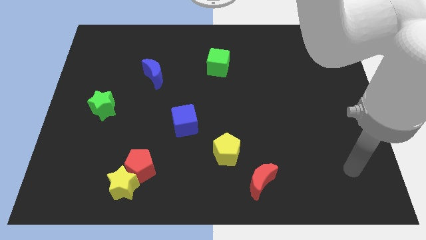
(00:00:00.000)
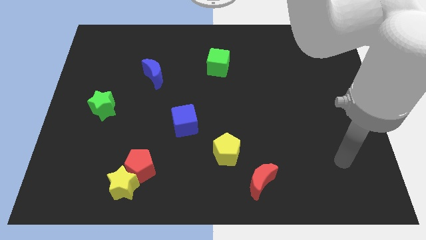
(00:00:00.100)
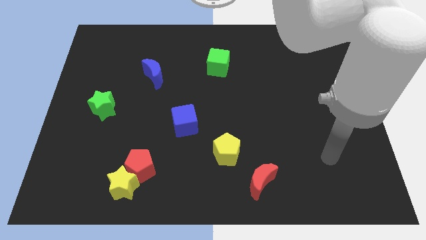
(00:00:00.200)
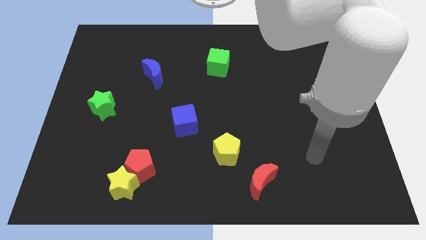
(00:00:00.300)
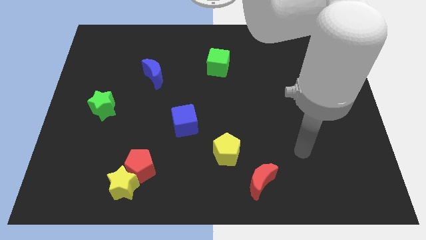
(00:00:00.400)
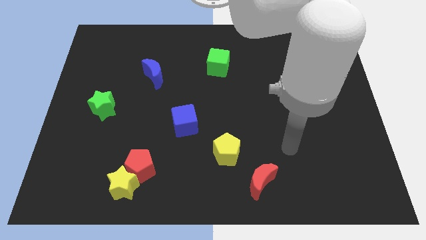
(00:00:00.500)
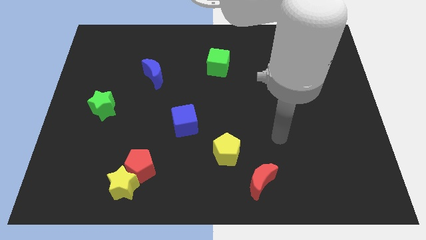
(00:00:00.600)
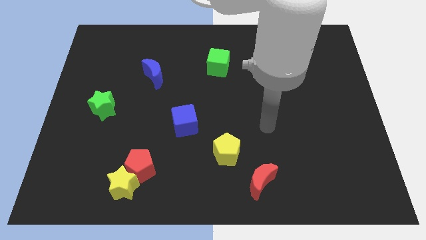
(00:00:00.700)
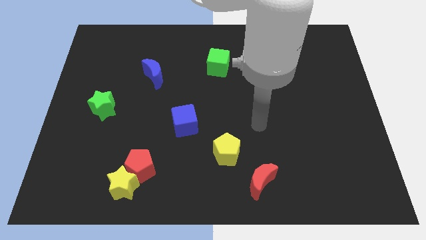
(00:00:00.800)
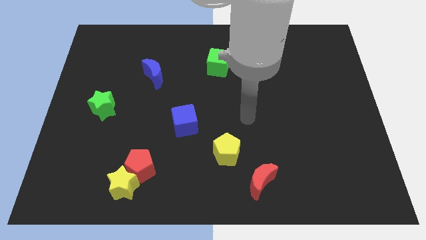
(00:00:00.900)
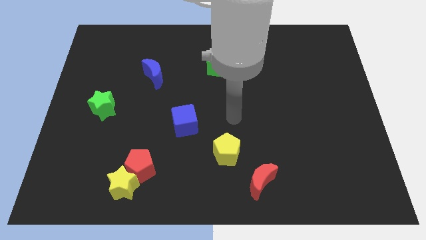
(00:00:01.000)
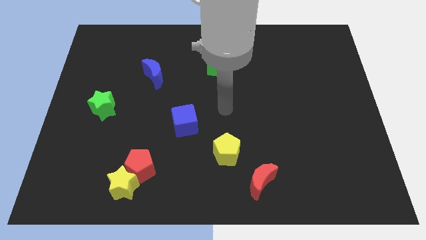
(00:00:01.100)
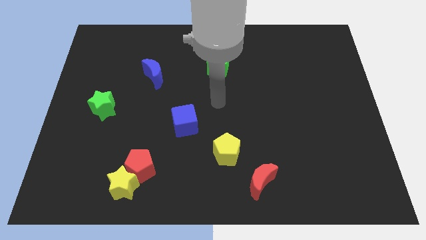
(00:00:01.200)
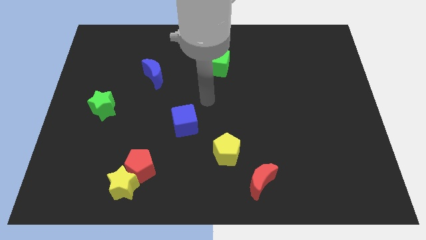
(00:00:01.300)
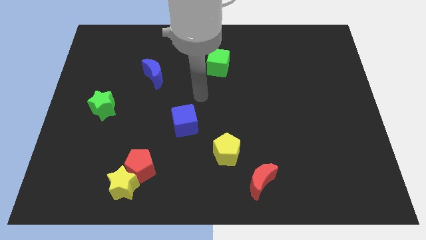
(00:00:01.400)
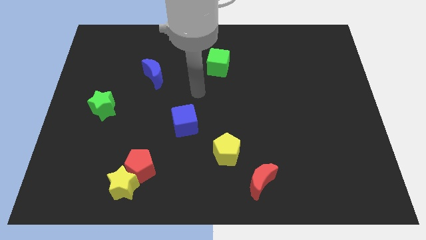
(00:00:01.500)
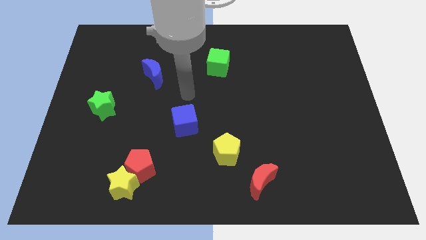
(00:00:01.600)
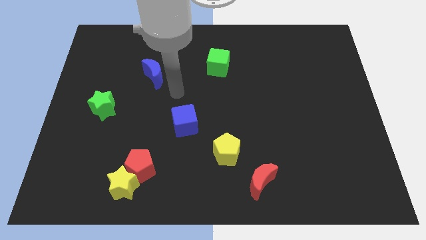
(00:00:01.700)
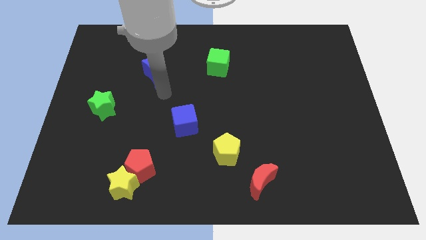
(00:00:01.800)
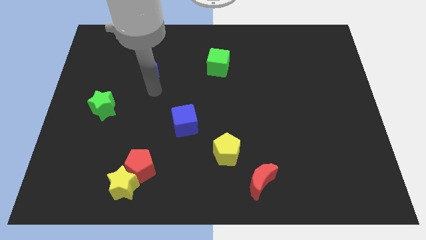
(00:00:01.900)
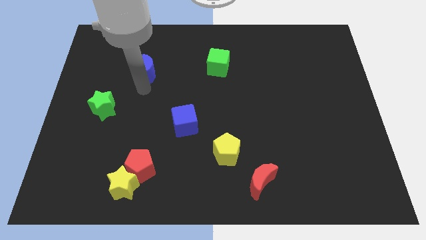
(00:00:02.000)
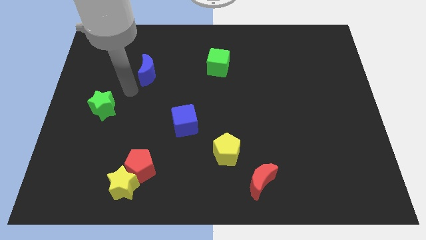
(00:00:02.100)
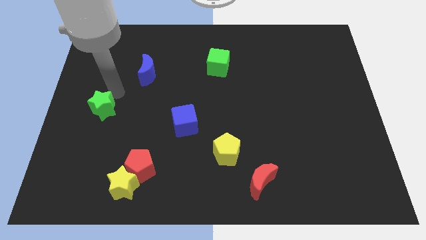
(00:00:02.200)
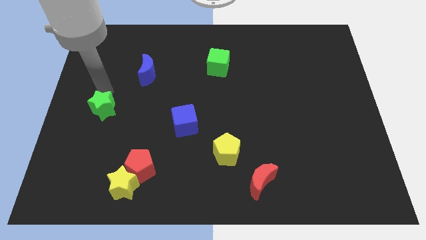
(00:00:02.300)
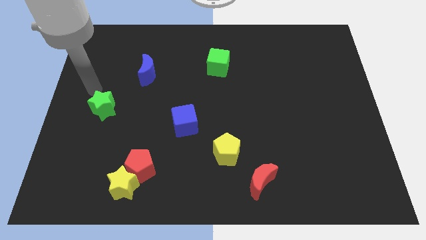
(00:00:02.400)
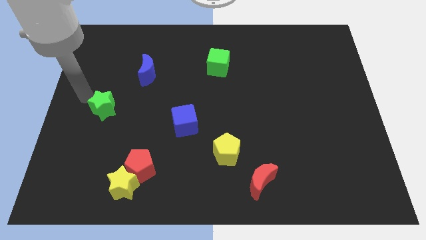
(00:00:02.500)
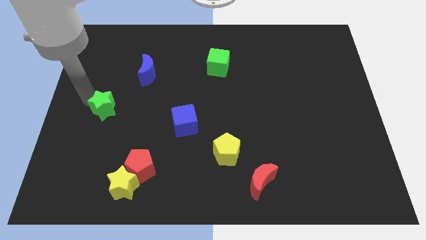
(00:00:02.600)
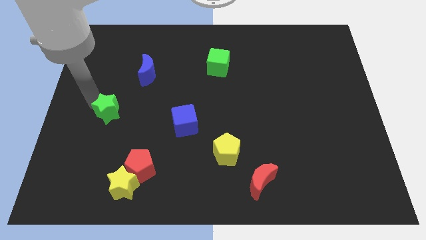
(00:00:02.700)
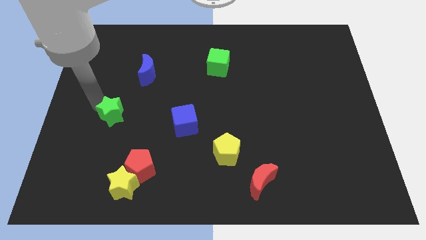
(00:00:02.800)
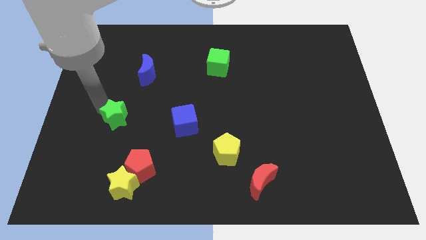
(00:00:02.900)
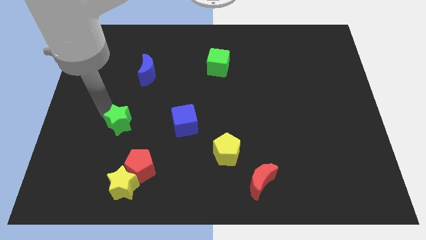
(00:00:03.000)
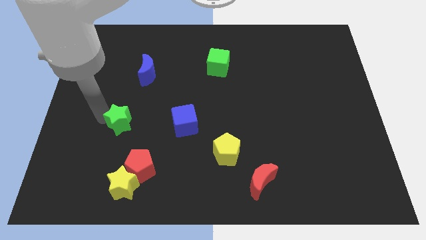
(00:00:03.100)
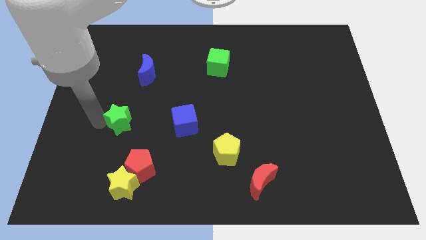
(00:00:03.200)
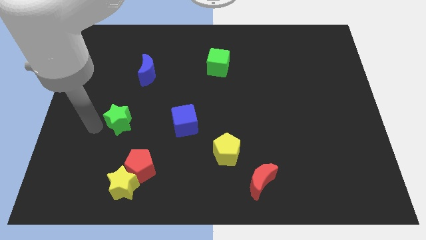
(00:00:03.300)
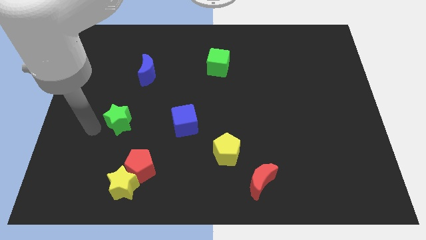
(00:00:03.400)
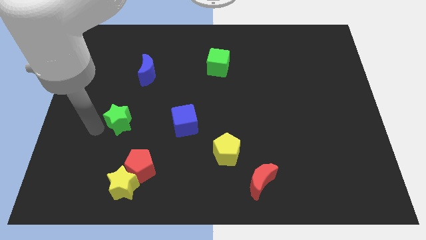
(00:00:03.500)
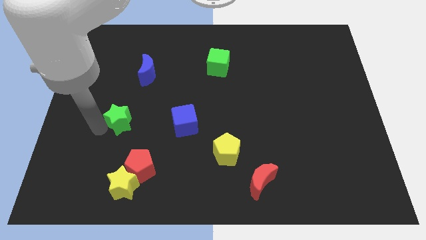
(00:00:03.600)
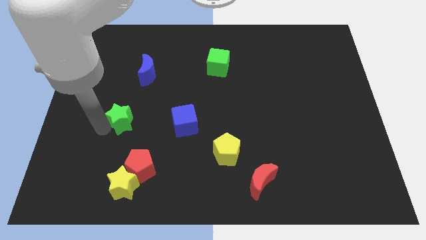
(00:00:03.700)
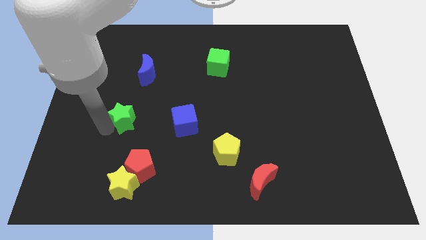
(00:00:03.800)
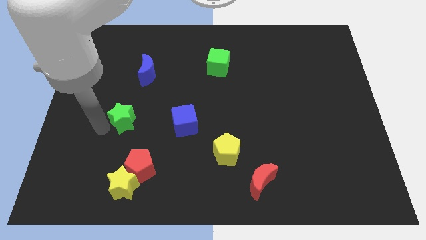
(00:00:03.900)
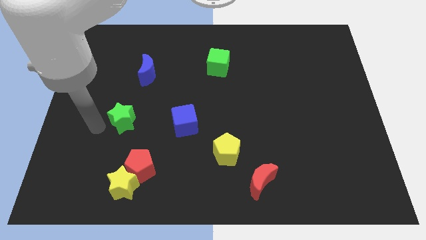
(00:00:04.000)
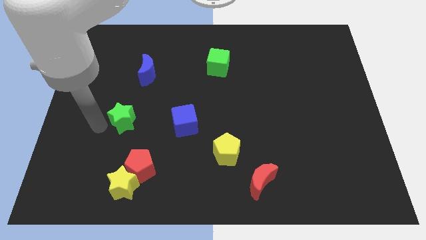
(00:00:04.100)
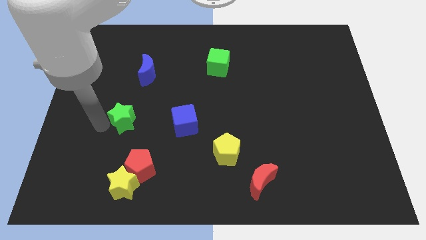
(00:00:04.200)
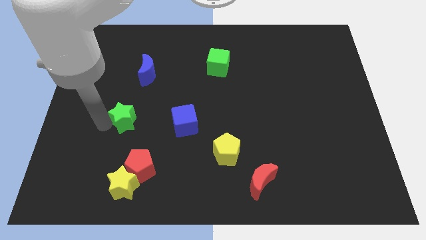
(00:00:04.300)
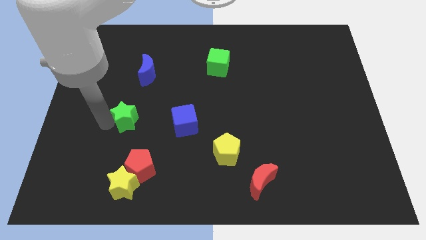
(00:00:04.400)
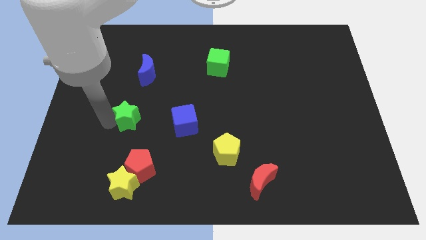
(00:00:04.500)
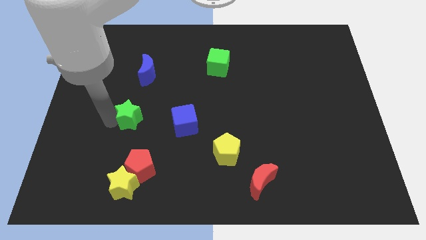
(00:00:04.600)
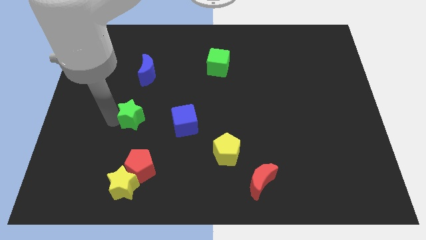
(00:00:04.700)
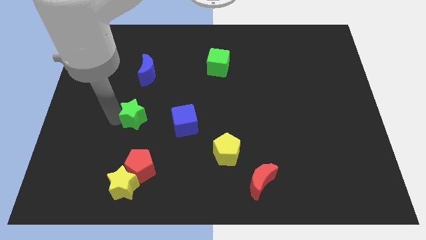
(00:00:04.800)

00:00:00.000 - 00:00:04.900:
slightly push the green star right

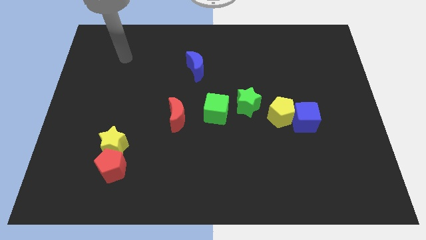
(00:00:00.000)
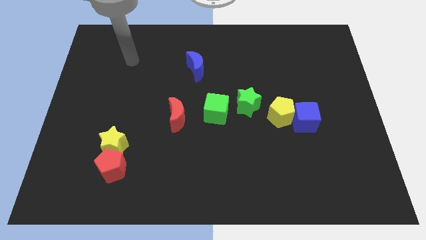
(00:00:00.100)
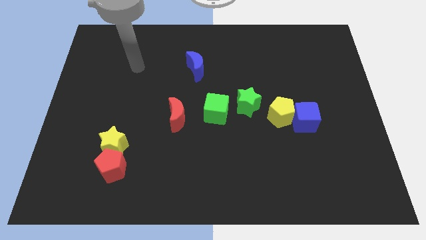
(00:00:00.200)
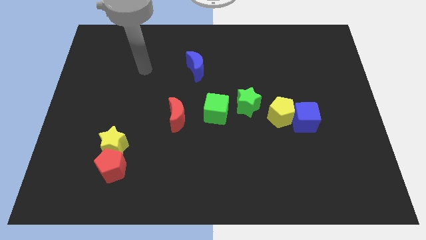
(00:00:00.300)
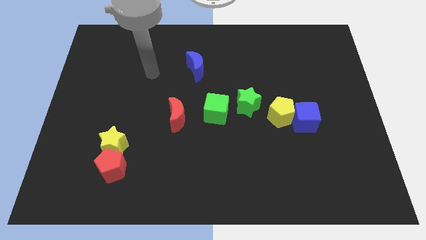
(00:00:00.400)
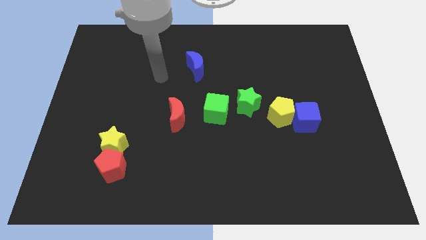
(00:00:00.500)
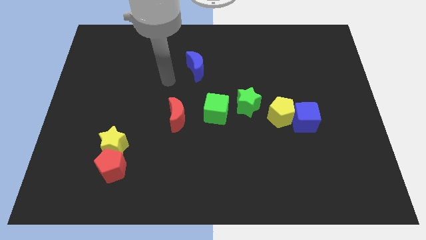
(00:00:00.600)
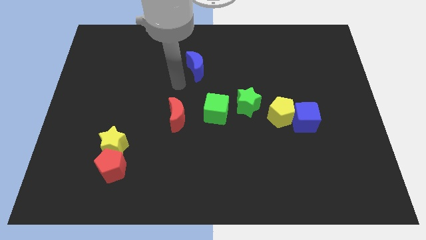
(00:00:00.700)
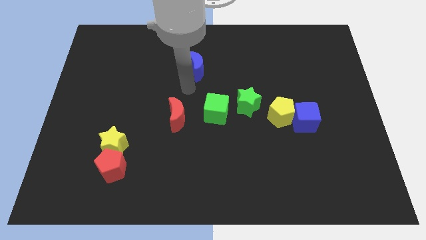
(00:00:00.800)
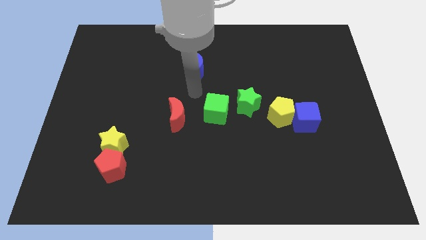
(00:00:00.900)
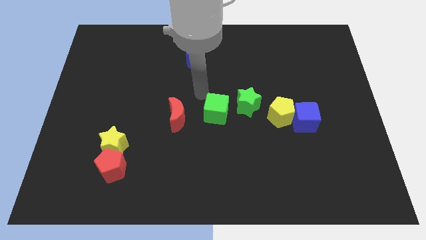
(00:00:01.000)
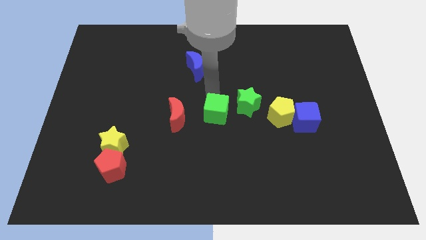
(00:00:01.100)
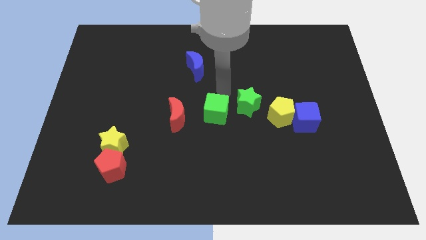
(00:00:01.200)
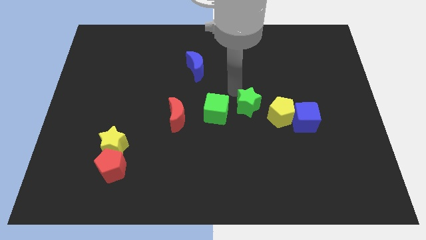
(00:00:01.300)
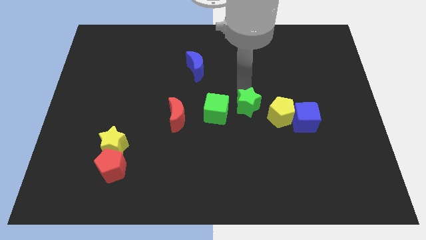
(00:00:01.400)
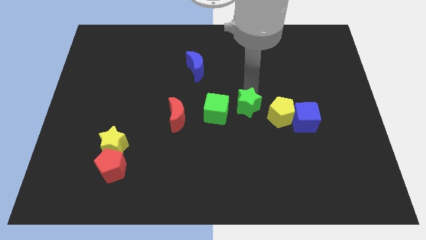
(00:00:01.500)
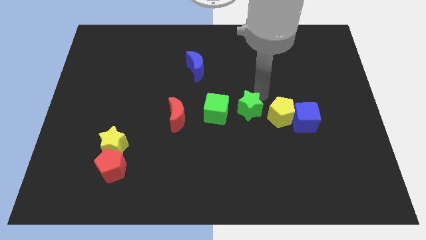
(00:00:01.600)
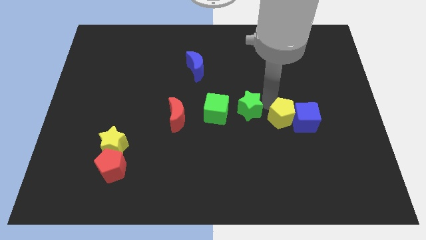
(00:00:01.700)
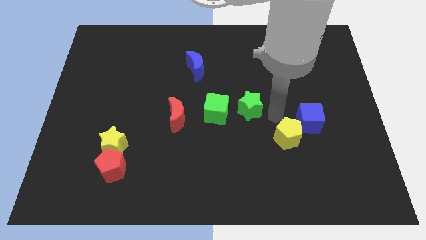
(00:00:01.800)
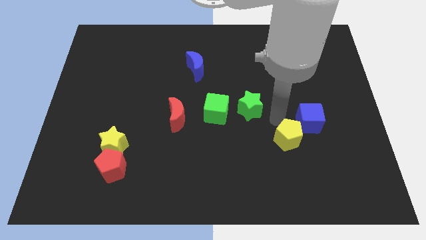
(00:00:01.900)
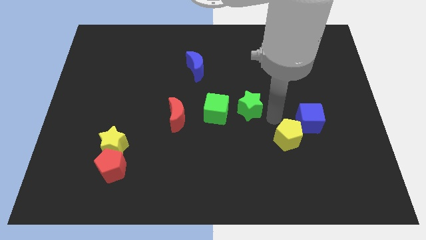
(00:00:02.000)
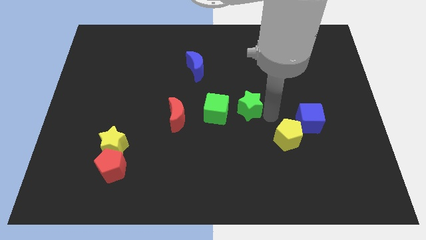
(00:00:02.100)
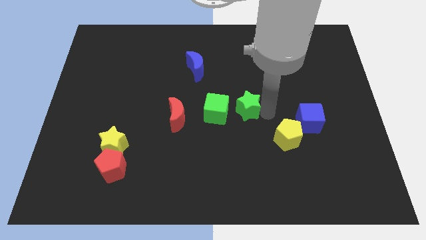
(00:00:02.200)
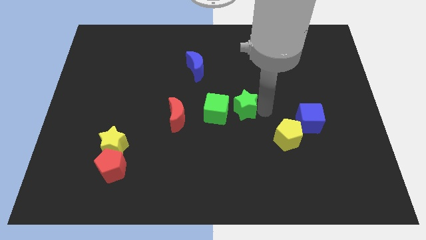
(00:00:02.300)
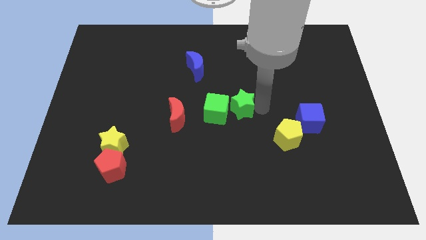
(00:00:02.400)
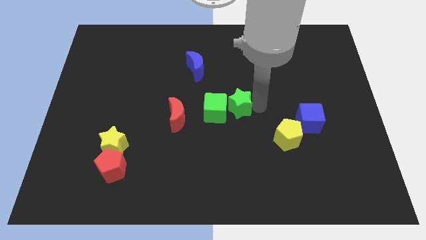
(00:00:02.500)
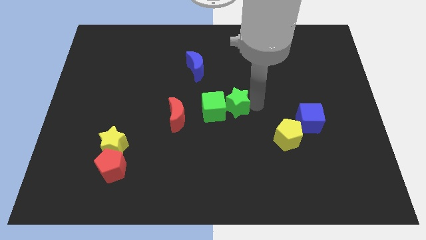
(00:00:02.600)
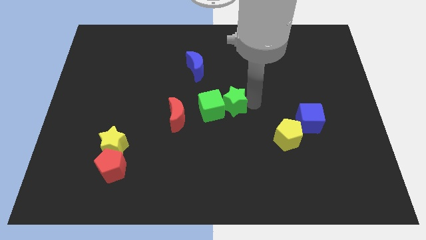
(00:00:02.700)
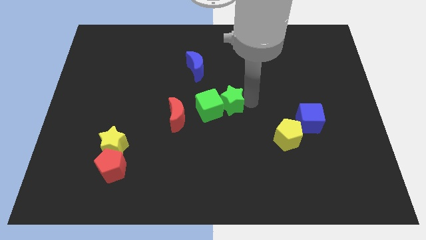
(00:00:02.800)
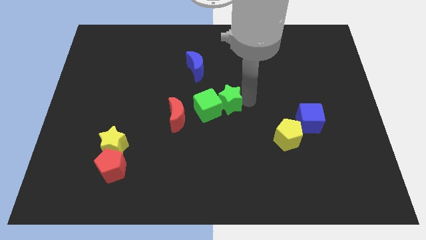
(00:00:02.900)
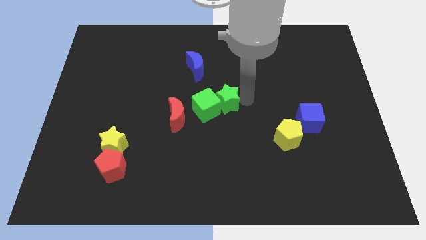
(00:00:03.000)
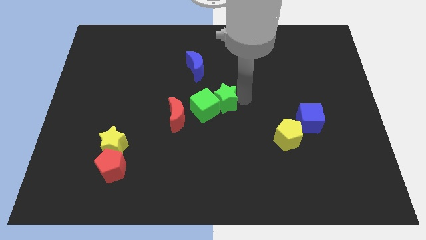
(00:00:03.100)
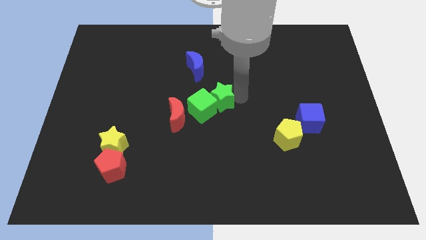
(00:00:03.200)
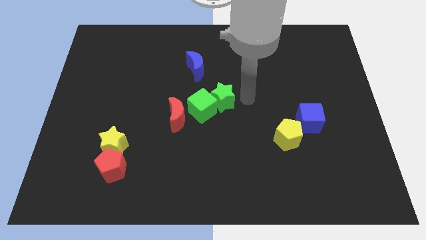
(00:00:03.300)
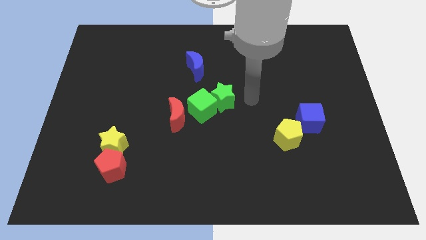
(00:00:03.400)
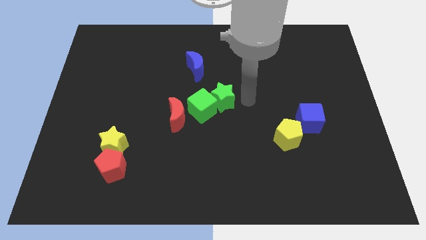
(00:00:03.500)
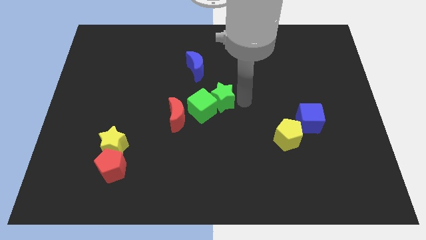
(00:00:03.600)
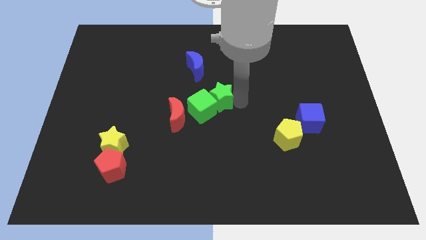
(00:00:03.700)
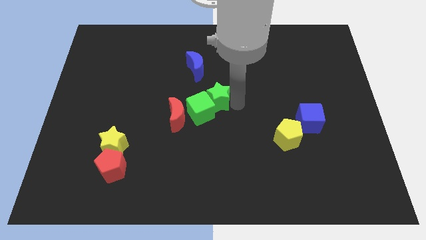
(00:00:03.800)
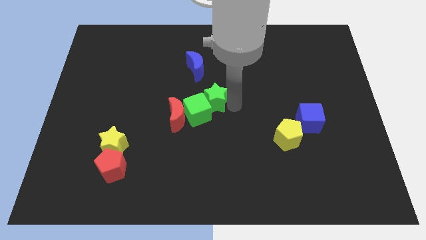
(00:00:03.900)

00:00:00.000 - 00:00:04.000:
slide the green star a bit to the left
